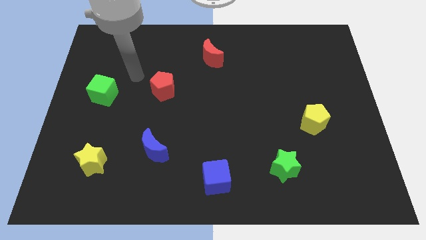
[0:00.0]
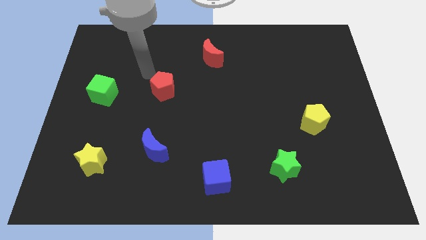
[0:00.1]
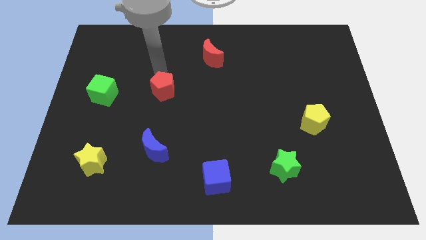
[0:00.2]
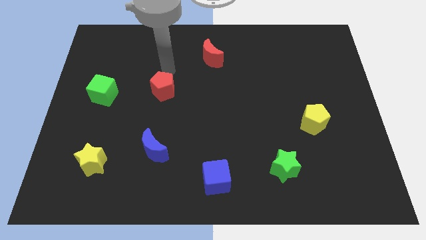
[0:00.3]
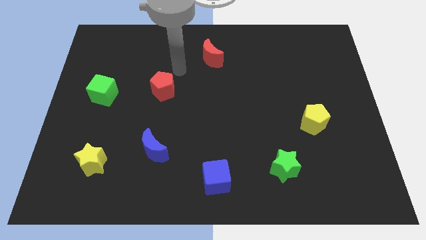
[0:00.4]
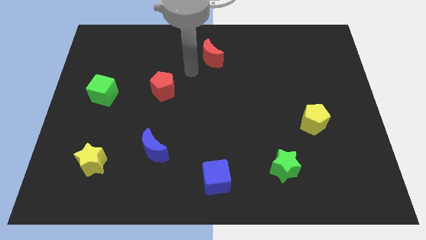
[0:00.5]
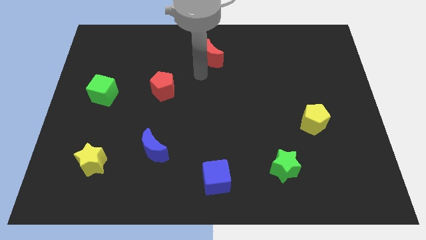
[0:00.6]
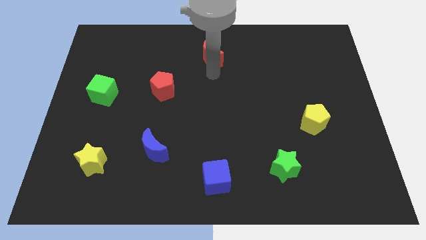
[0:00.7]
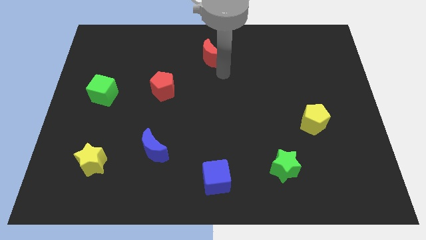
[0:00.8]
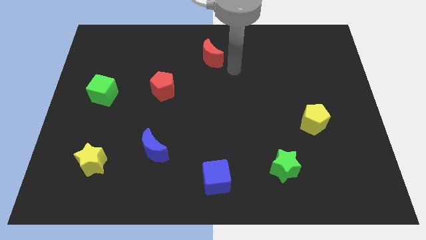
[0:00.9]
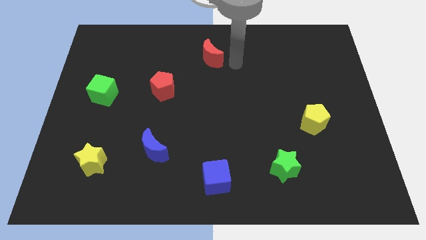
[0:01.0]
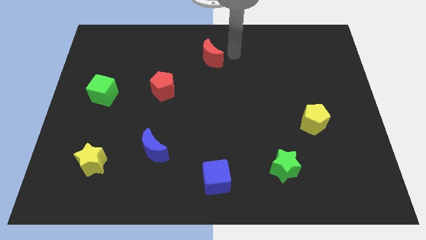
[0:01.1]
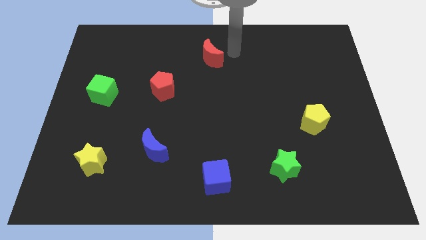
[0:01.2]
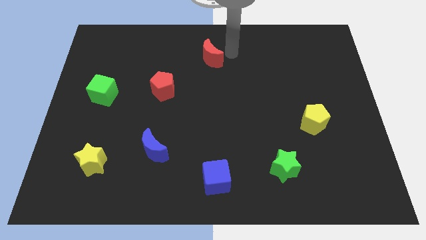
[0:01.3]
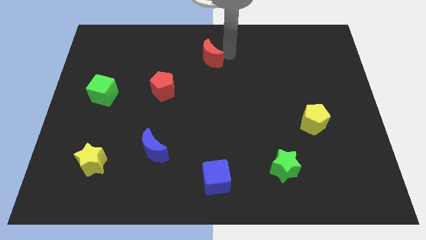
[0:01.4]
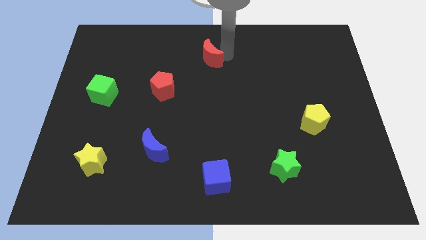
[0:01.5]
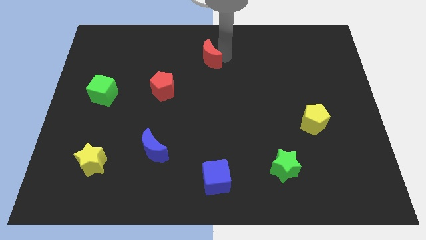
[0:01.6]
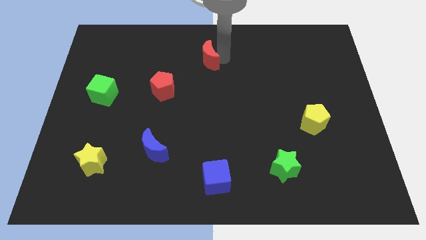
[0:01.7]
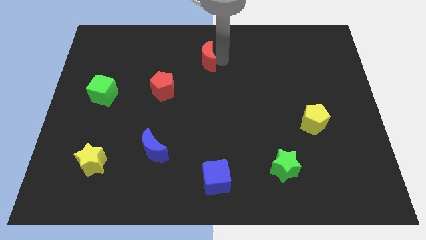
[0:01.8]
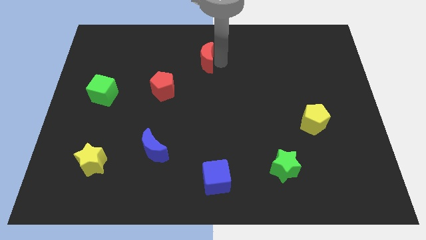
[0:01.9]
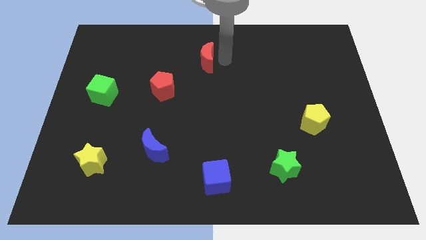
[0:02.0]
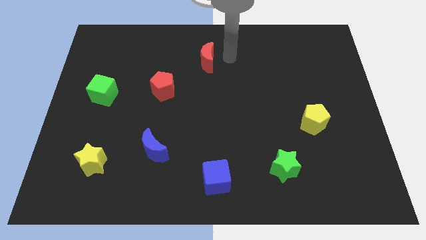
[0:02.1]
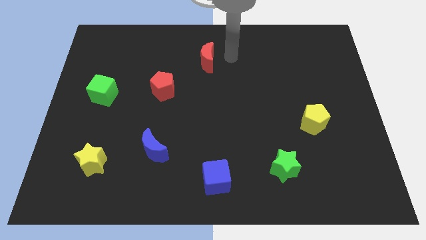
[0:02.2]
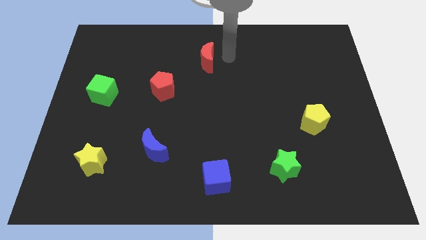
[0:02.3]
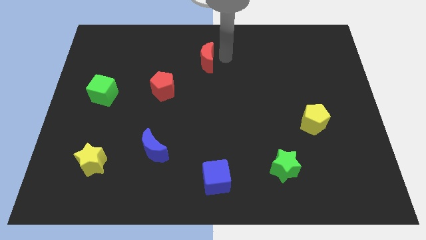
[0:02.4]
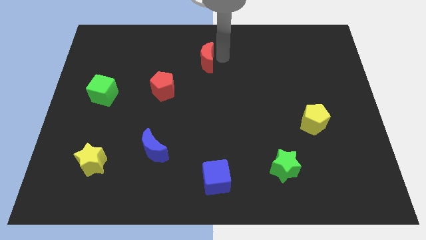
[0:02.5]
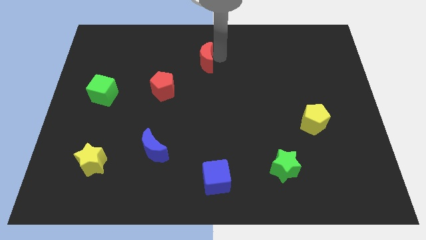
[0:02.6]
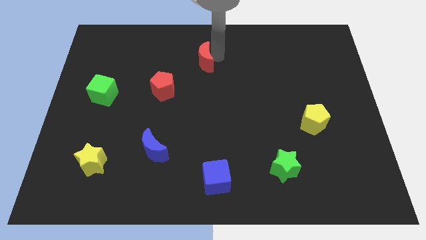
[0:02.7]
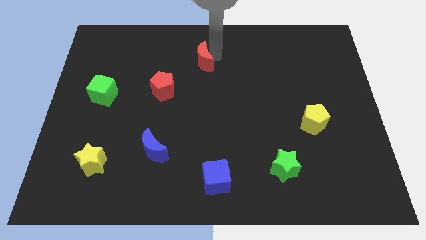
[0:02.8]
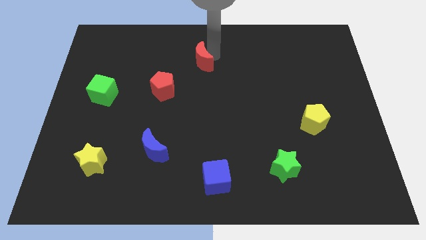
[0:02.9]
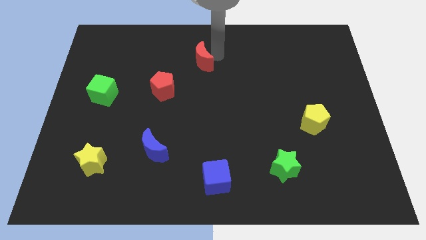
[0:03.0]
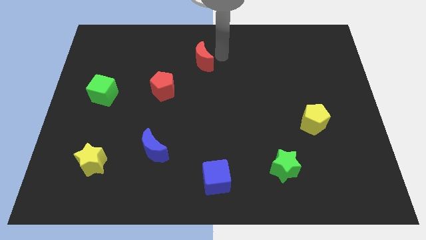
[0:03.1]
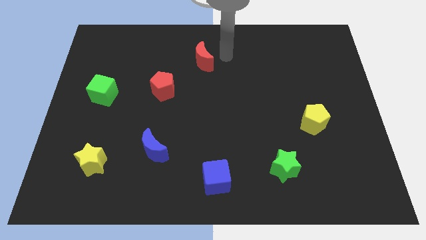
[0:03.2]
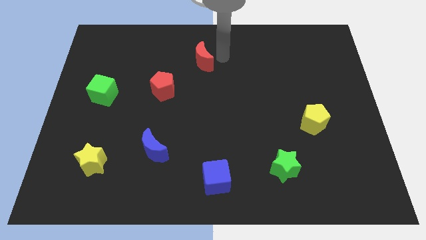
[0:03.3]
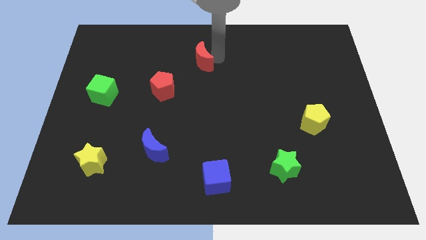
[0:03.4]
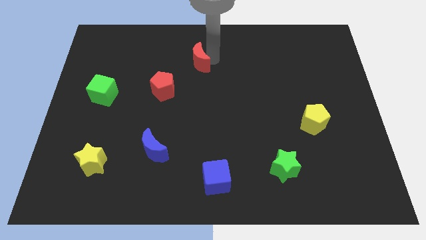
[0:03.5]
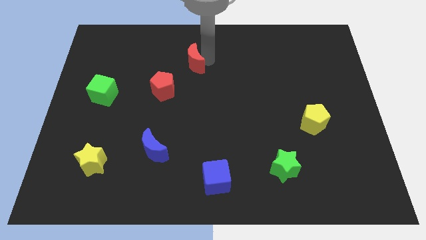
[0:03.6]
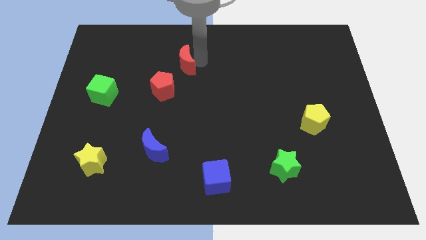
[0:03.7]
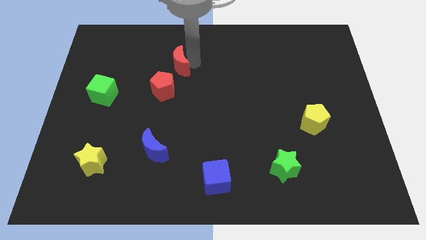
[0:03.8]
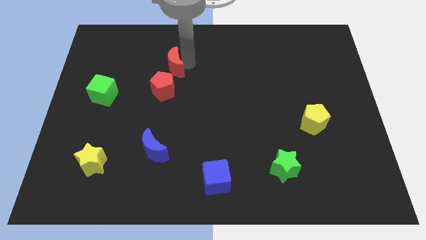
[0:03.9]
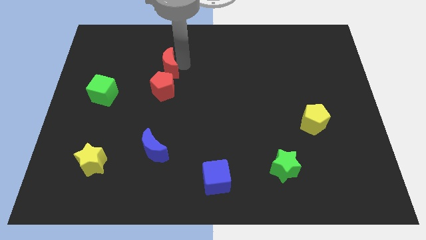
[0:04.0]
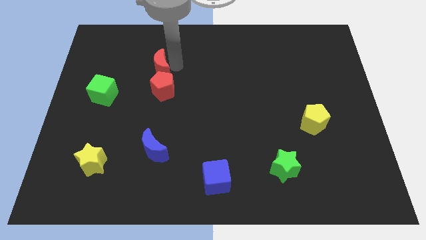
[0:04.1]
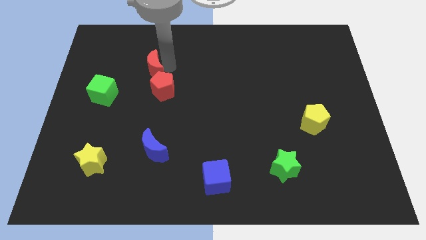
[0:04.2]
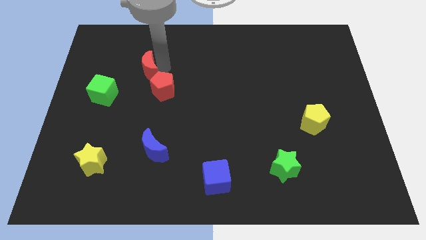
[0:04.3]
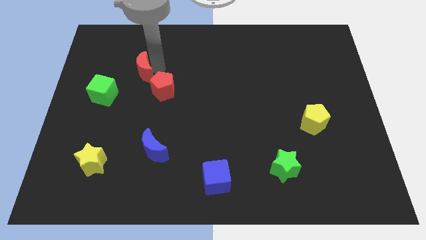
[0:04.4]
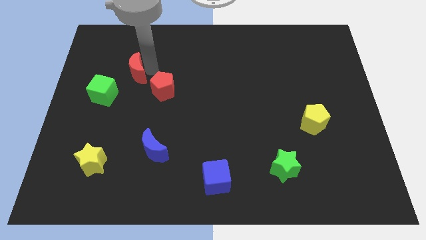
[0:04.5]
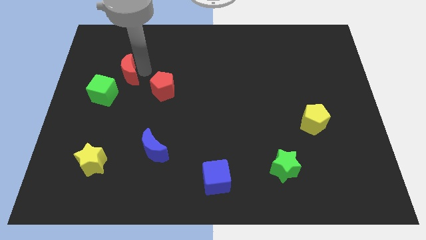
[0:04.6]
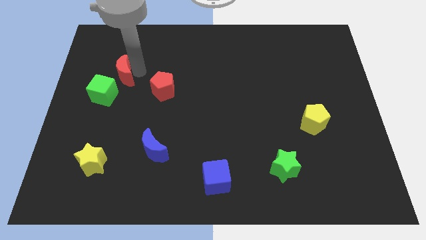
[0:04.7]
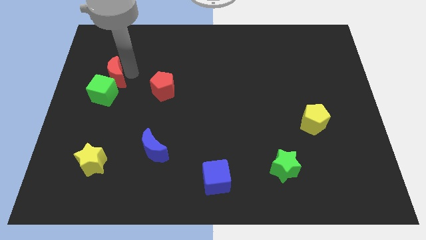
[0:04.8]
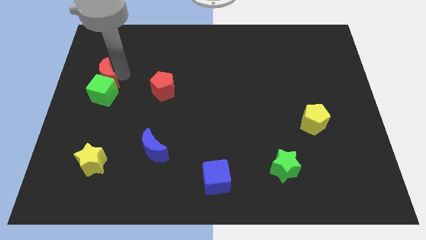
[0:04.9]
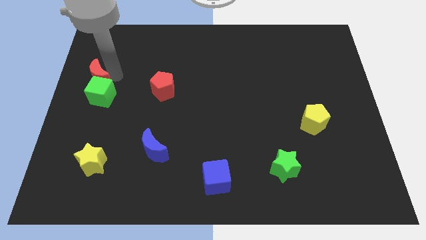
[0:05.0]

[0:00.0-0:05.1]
put the red moon to the left side

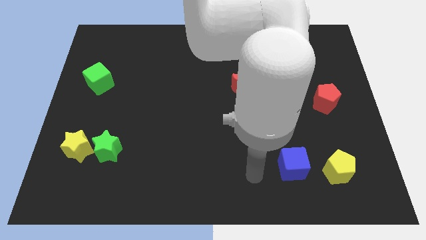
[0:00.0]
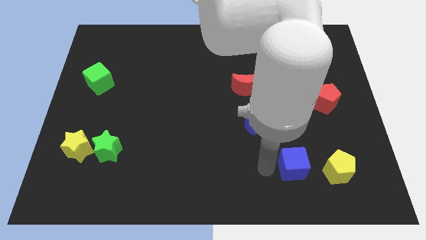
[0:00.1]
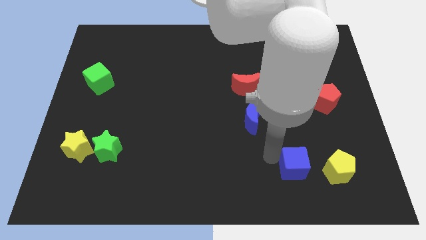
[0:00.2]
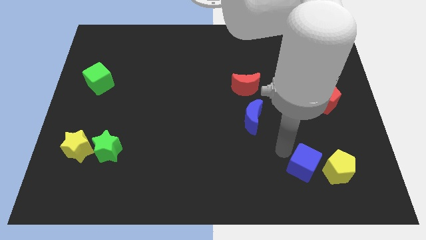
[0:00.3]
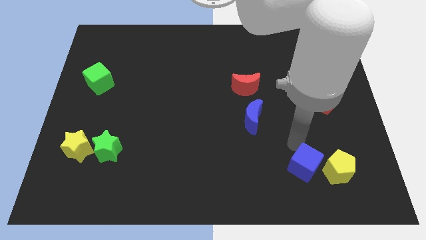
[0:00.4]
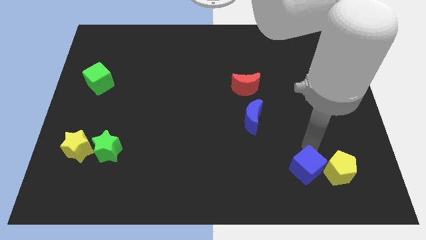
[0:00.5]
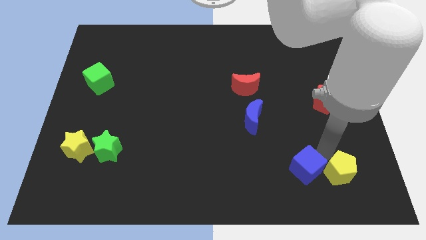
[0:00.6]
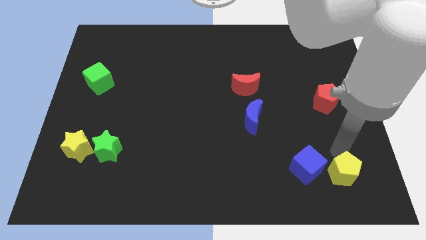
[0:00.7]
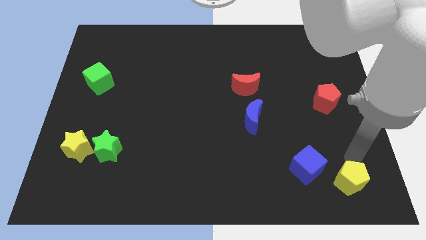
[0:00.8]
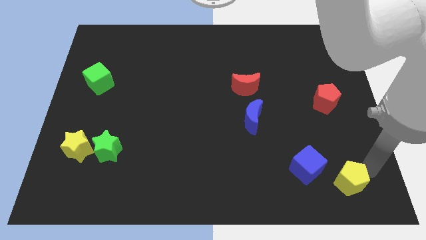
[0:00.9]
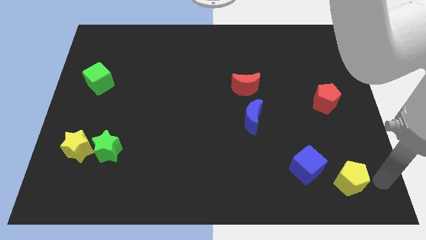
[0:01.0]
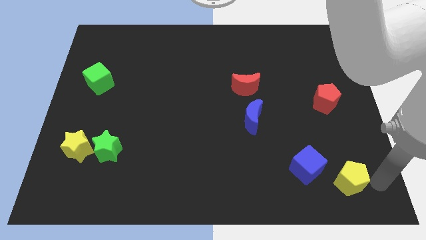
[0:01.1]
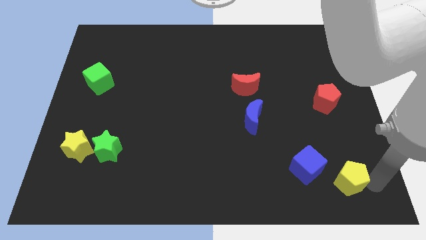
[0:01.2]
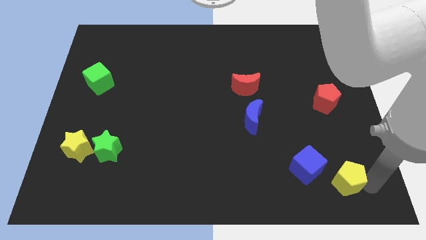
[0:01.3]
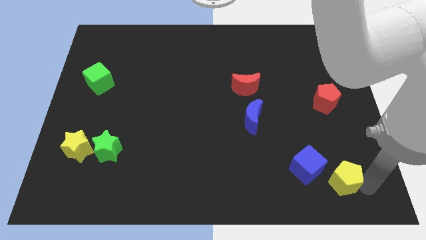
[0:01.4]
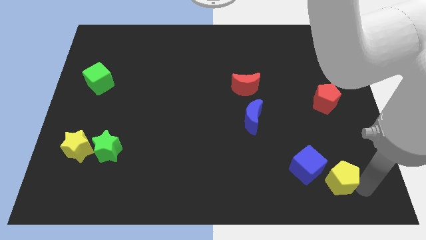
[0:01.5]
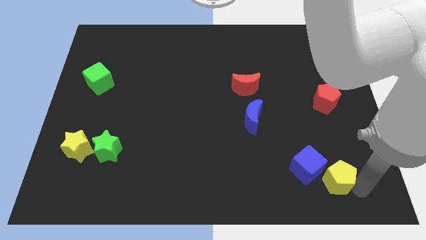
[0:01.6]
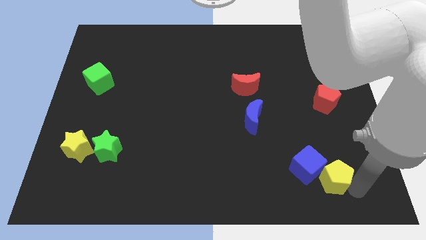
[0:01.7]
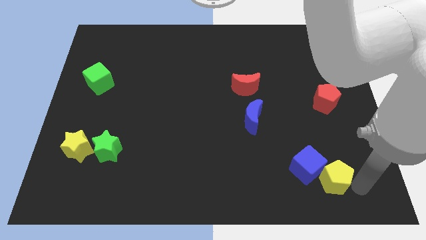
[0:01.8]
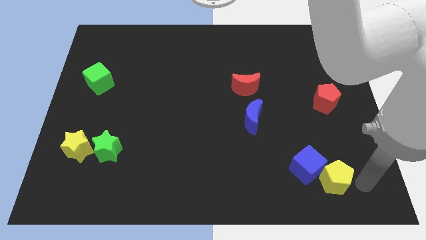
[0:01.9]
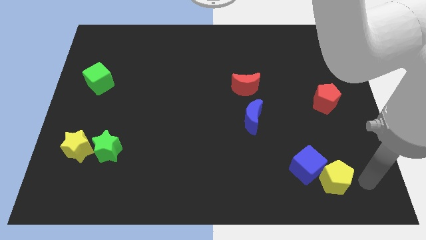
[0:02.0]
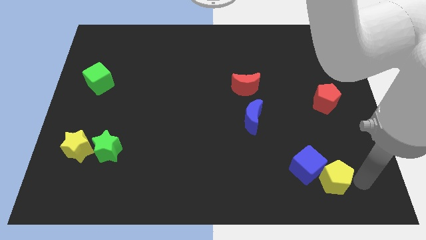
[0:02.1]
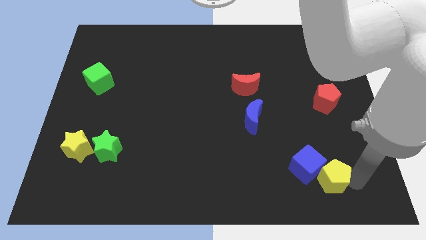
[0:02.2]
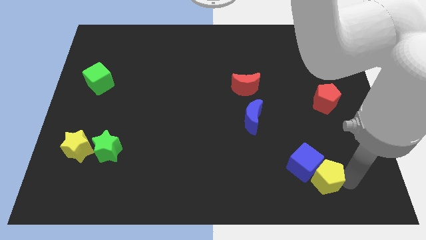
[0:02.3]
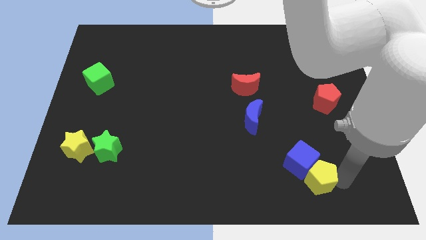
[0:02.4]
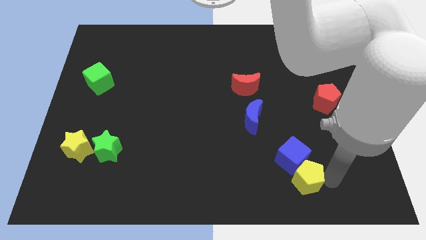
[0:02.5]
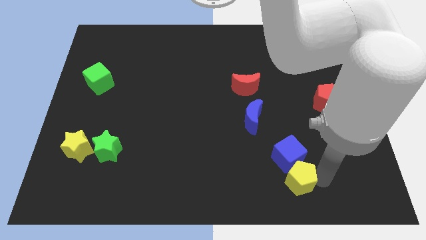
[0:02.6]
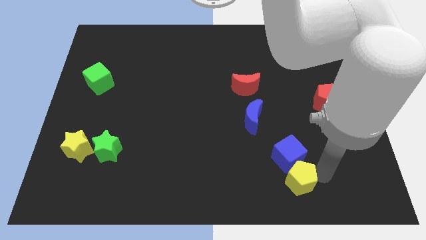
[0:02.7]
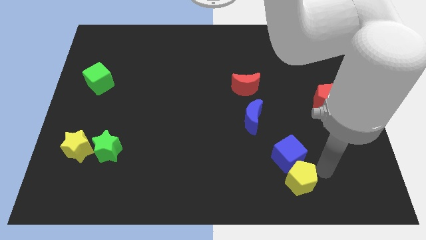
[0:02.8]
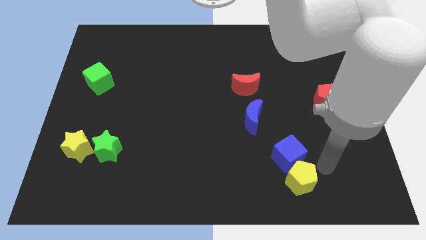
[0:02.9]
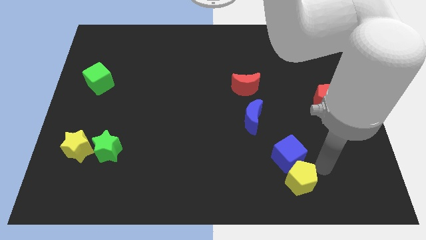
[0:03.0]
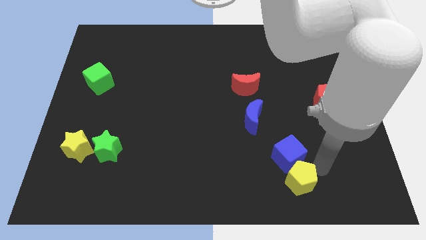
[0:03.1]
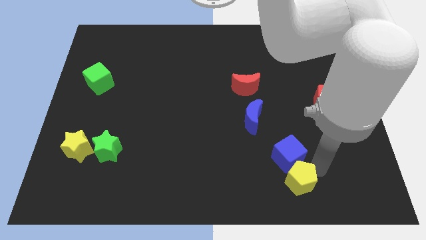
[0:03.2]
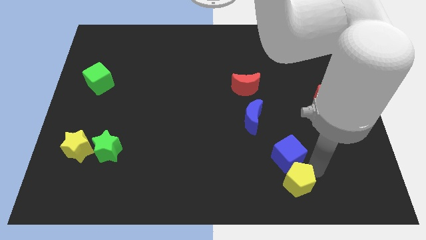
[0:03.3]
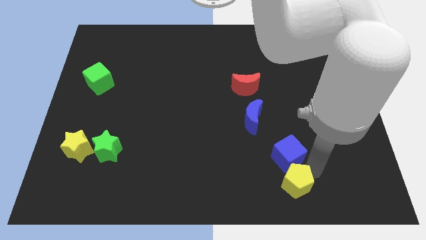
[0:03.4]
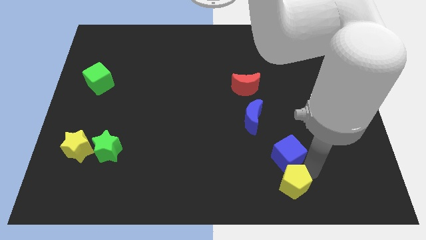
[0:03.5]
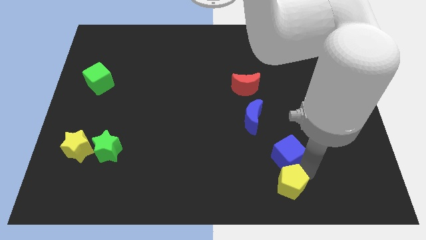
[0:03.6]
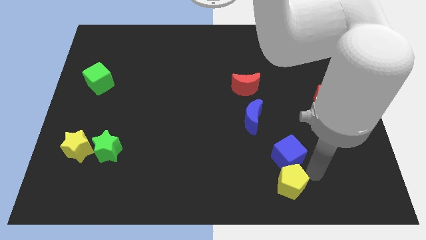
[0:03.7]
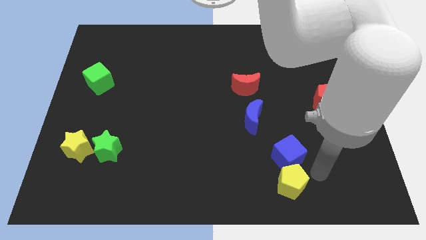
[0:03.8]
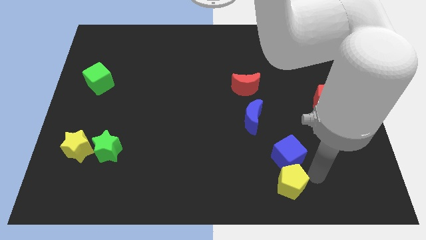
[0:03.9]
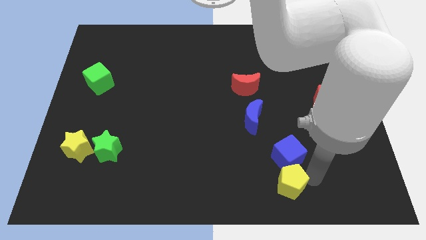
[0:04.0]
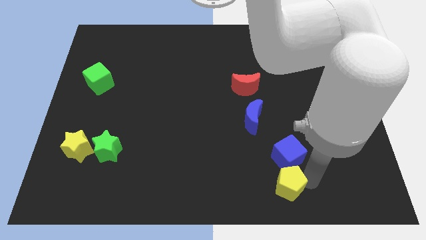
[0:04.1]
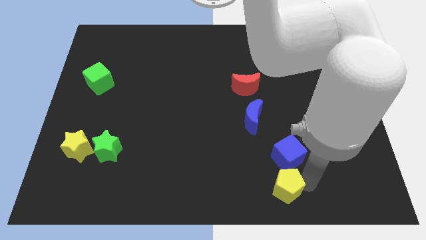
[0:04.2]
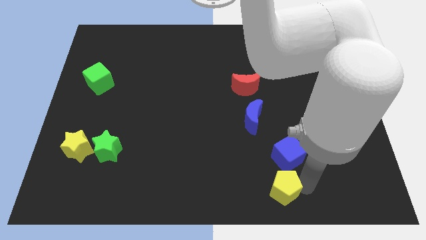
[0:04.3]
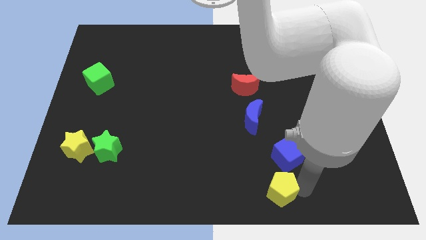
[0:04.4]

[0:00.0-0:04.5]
push the yellow pentagon to the bottom side
